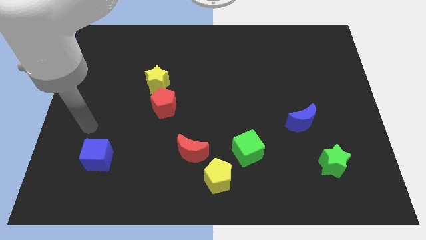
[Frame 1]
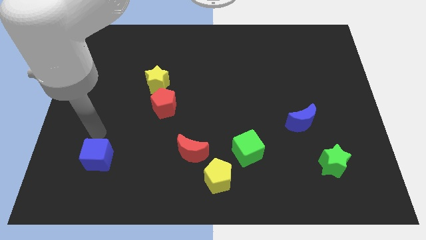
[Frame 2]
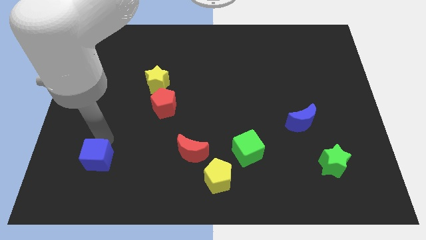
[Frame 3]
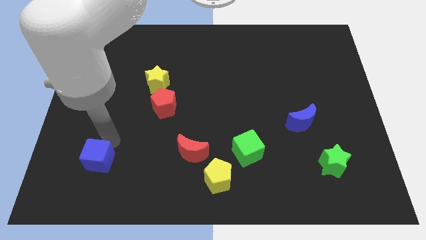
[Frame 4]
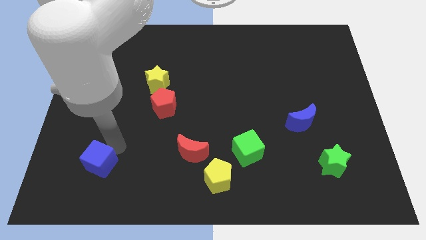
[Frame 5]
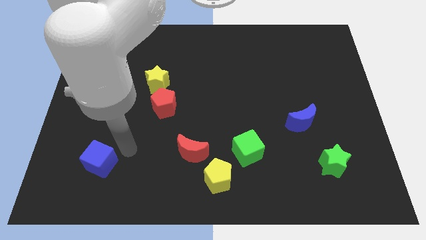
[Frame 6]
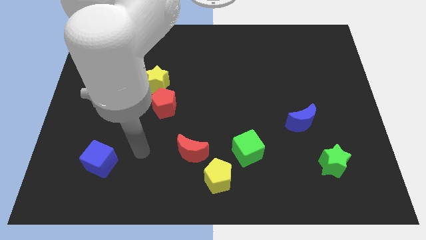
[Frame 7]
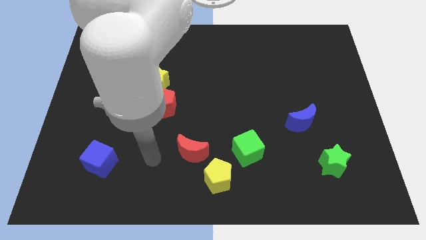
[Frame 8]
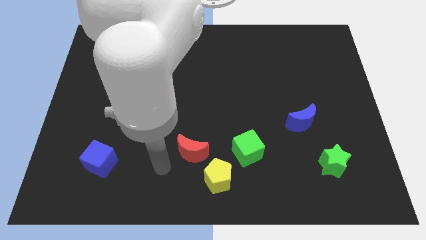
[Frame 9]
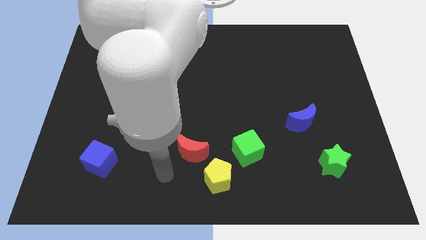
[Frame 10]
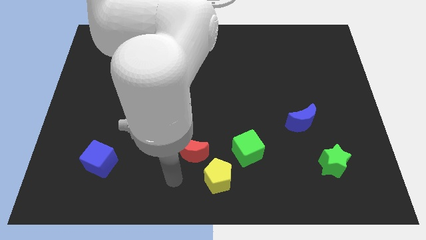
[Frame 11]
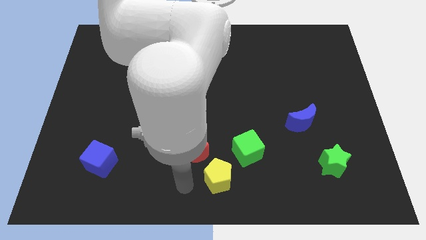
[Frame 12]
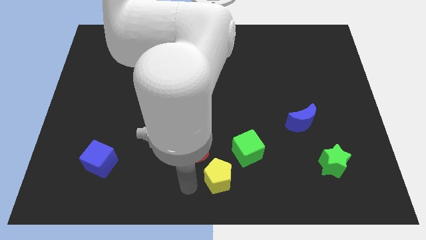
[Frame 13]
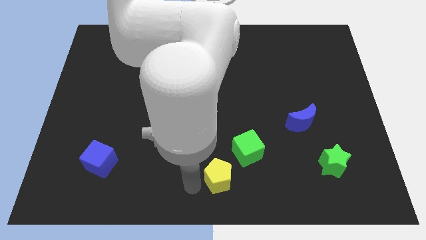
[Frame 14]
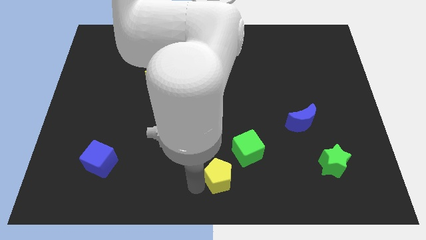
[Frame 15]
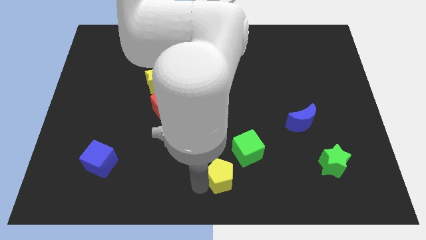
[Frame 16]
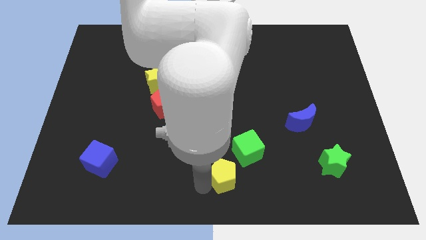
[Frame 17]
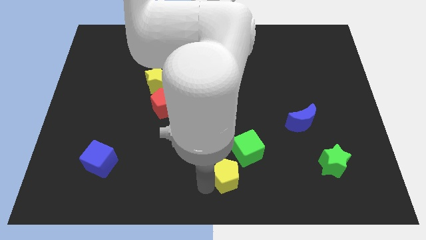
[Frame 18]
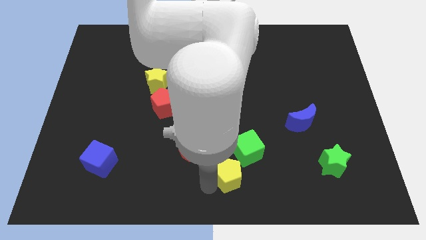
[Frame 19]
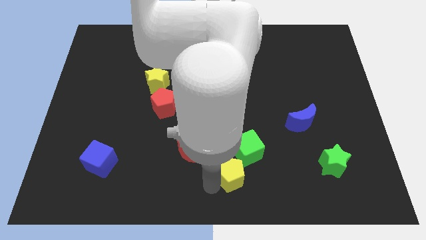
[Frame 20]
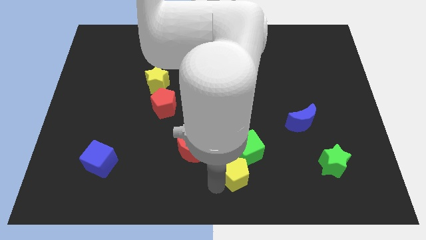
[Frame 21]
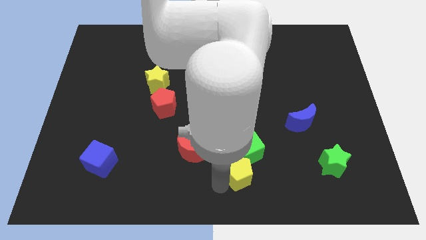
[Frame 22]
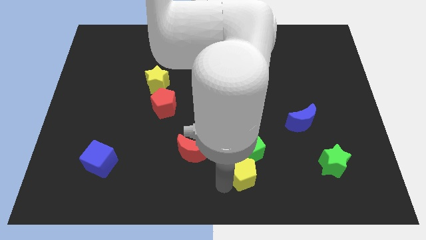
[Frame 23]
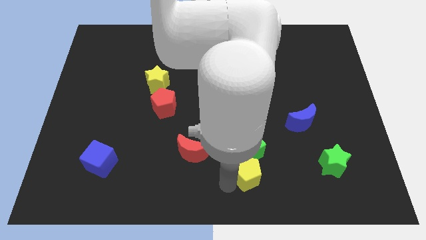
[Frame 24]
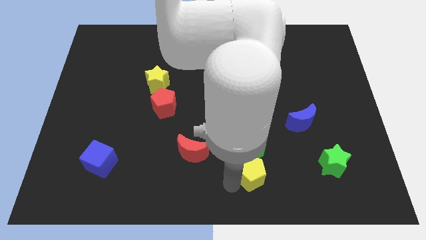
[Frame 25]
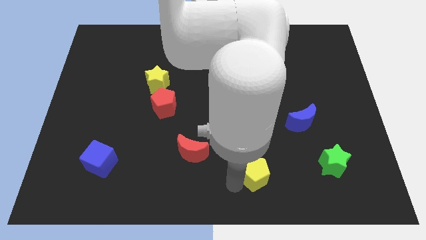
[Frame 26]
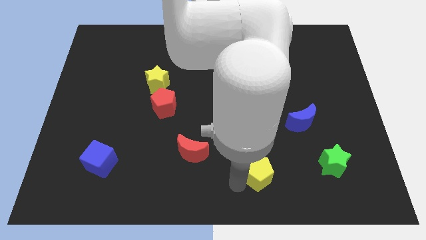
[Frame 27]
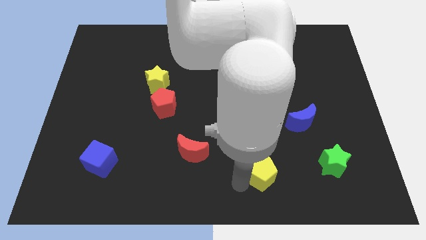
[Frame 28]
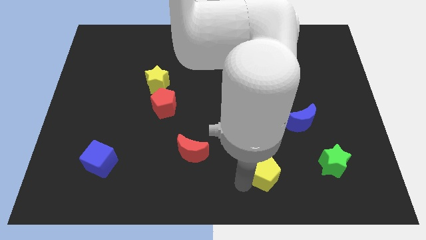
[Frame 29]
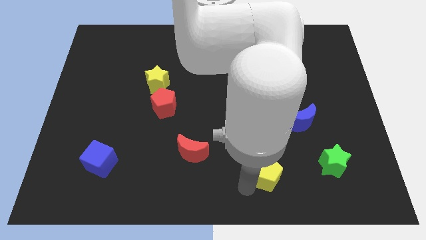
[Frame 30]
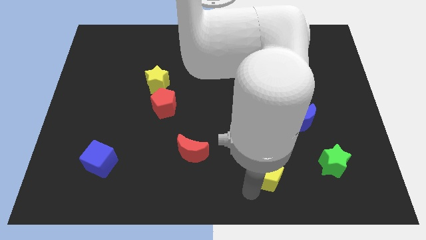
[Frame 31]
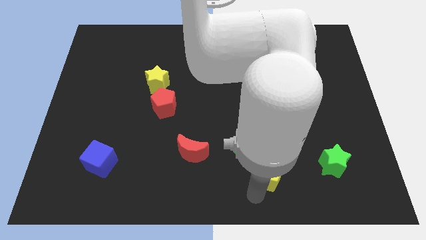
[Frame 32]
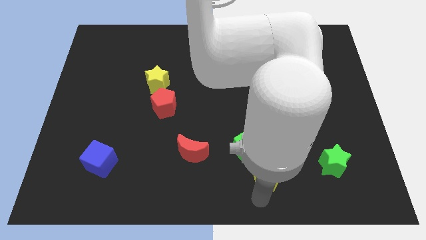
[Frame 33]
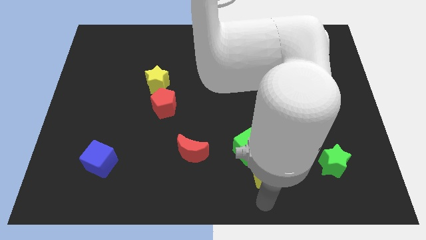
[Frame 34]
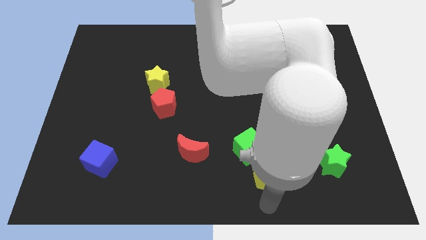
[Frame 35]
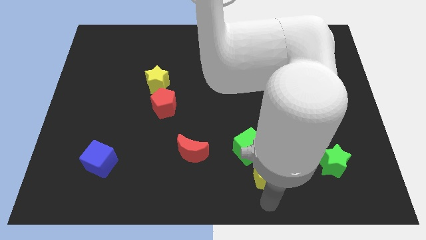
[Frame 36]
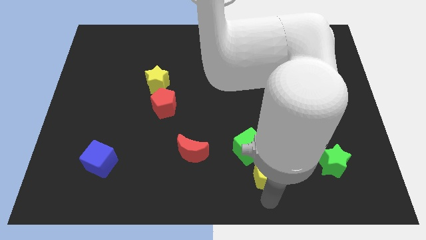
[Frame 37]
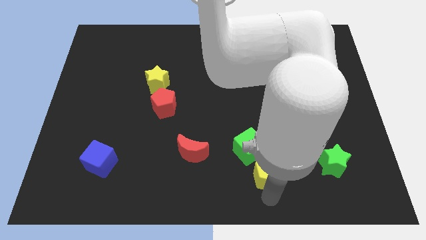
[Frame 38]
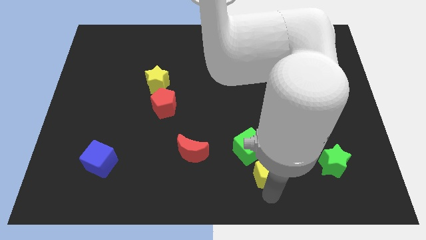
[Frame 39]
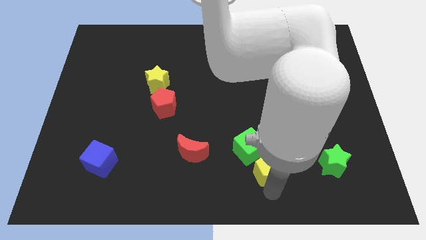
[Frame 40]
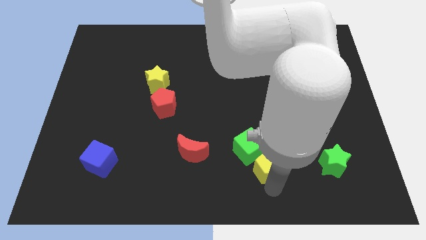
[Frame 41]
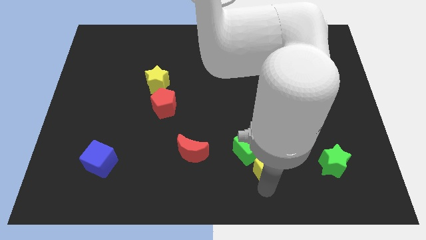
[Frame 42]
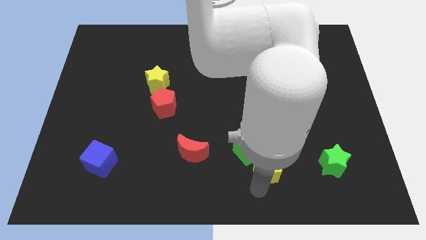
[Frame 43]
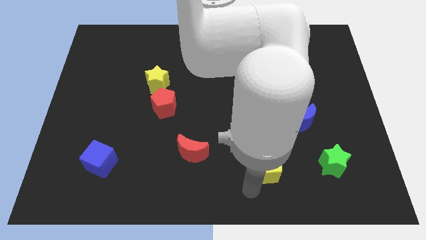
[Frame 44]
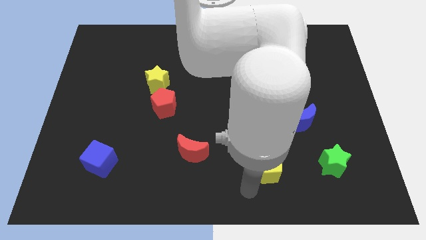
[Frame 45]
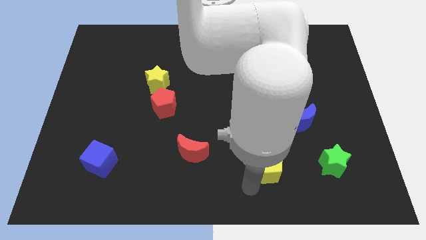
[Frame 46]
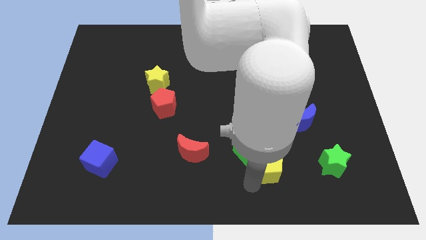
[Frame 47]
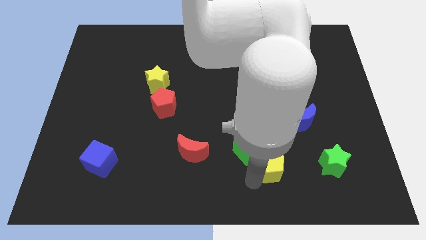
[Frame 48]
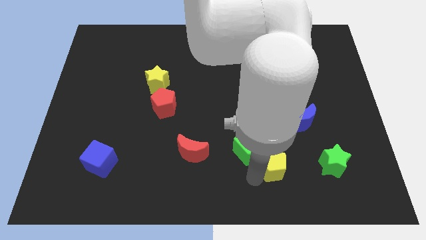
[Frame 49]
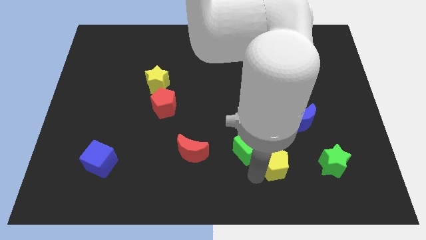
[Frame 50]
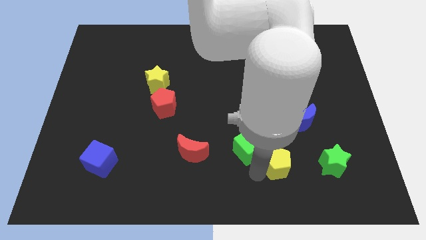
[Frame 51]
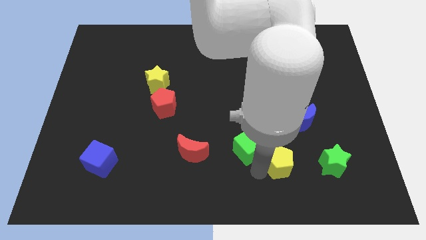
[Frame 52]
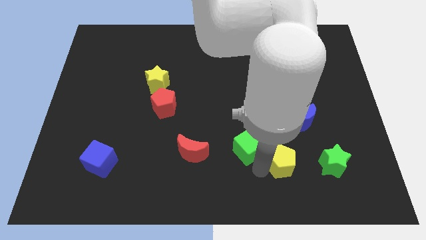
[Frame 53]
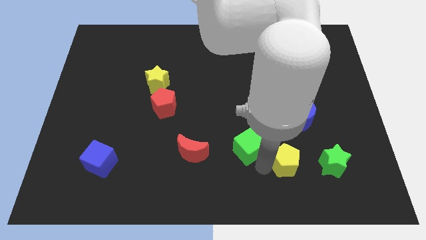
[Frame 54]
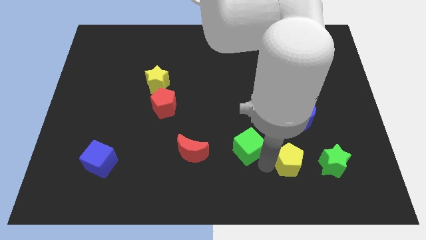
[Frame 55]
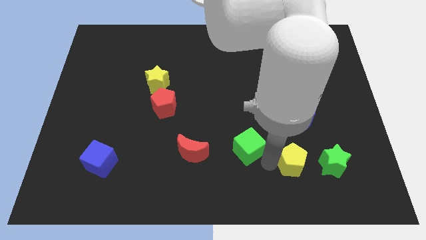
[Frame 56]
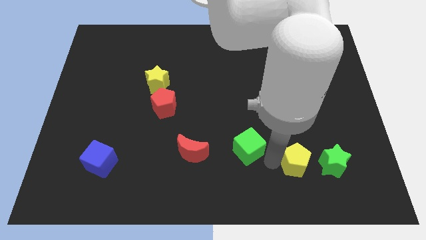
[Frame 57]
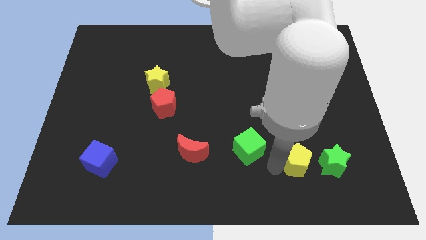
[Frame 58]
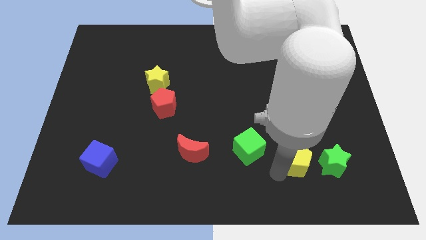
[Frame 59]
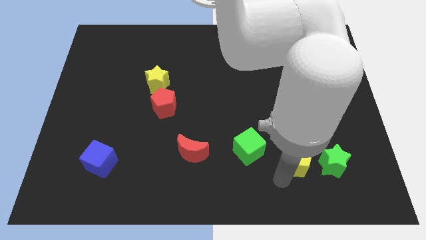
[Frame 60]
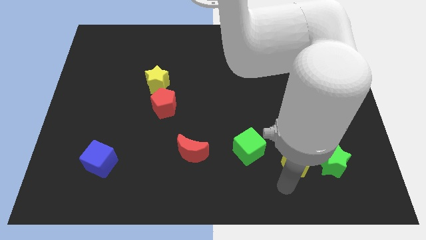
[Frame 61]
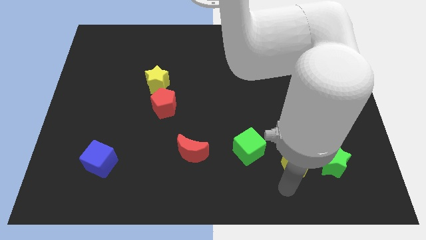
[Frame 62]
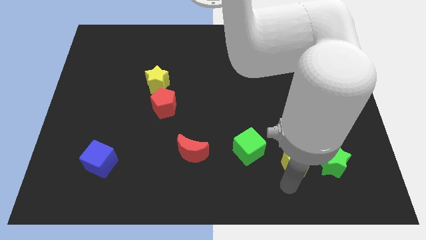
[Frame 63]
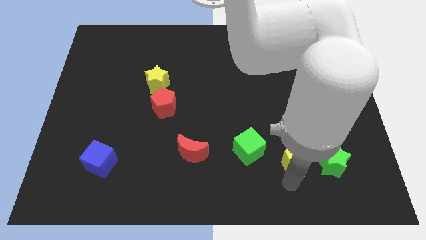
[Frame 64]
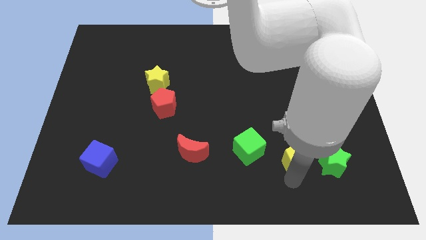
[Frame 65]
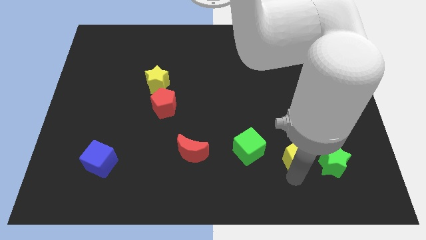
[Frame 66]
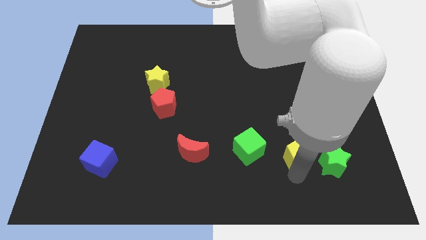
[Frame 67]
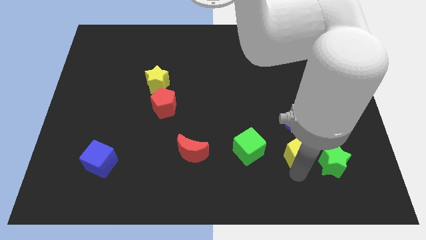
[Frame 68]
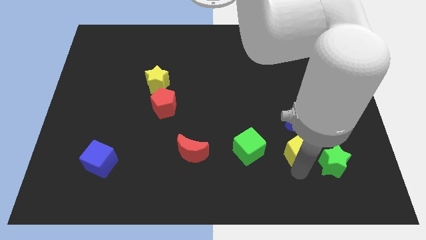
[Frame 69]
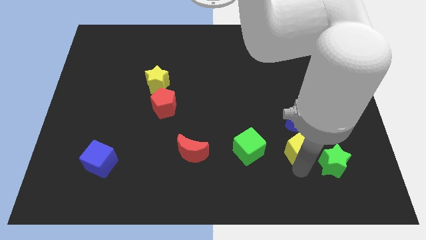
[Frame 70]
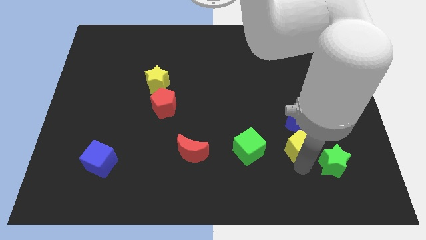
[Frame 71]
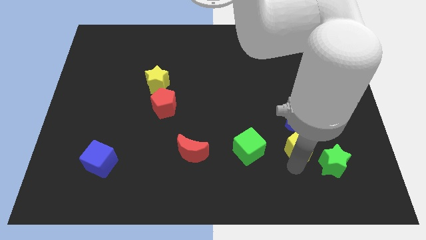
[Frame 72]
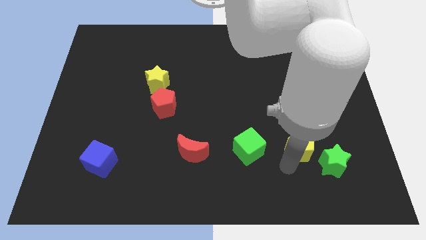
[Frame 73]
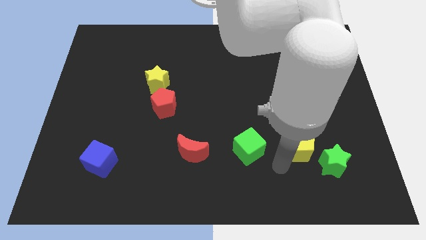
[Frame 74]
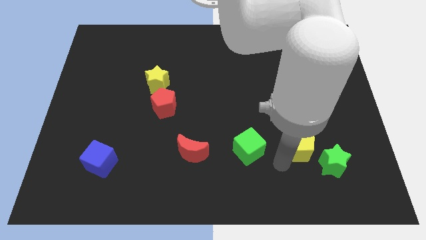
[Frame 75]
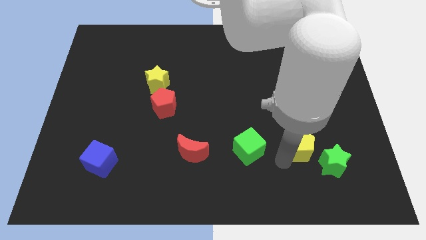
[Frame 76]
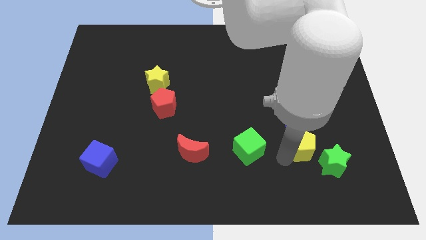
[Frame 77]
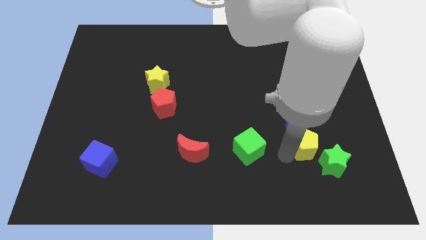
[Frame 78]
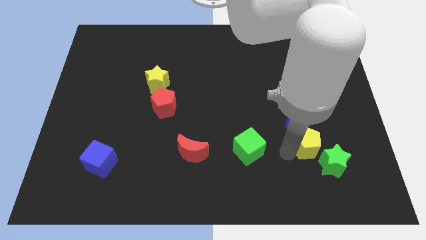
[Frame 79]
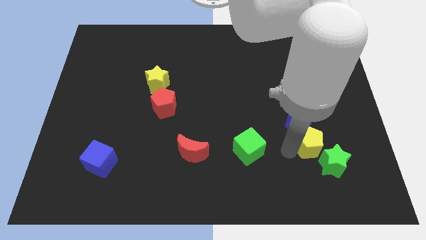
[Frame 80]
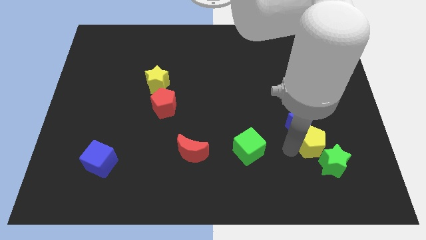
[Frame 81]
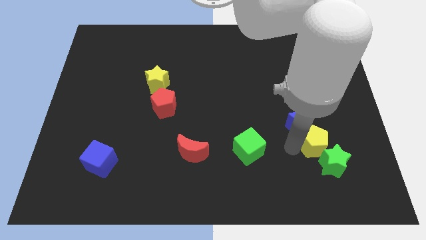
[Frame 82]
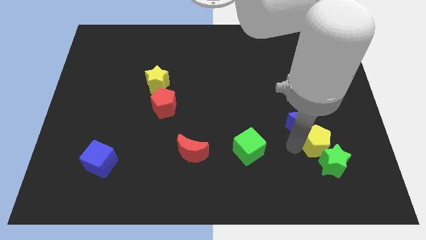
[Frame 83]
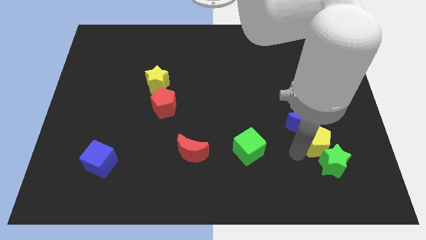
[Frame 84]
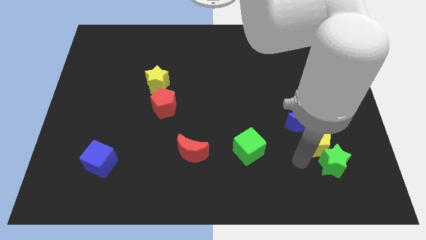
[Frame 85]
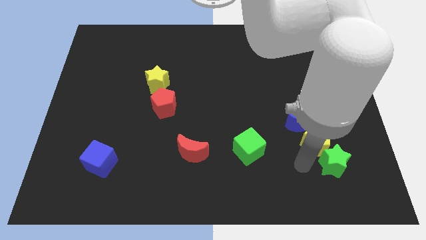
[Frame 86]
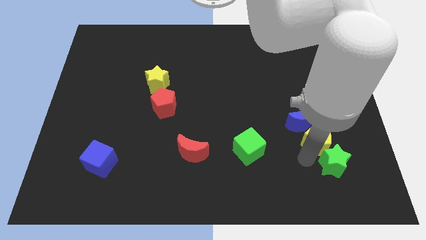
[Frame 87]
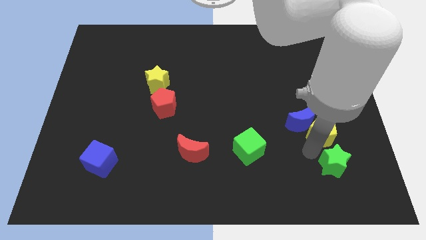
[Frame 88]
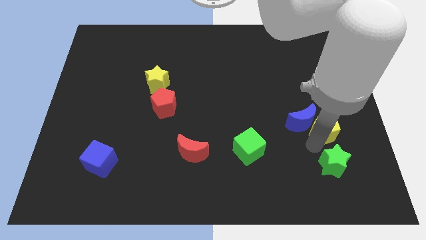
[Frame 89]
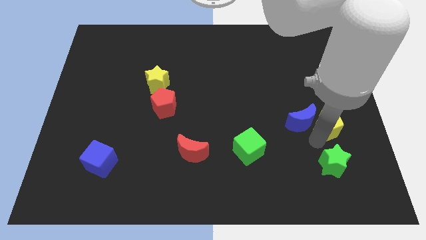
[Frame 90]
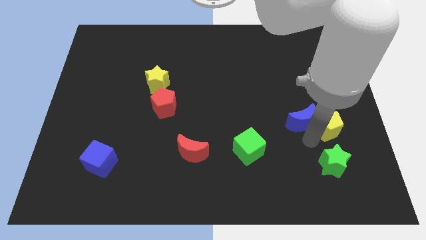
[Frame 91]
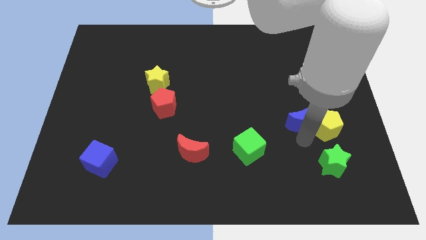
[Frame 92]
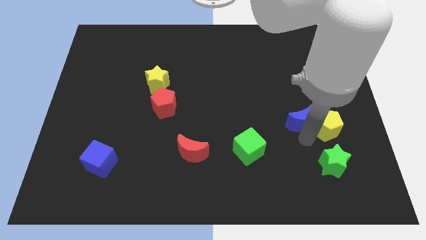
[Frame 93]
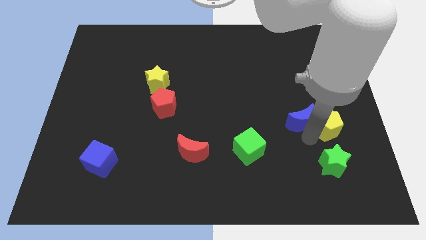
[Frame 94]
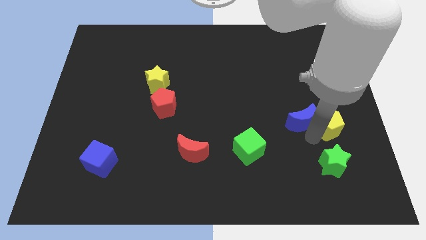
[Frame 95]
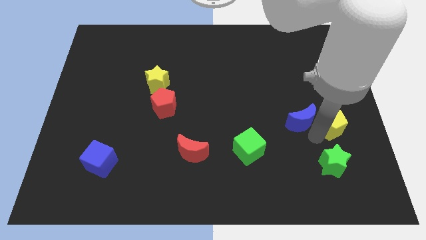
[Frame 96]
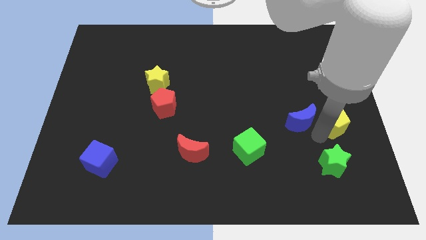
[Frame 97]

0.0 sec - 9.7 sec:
put the yellow pentagon to the right side
